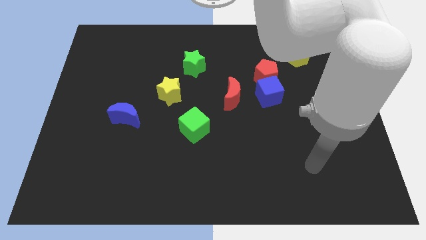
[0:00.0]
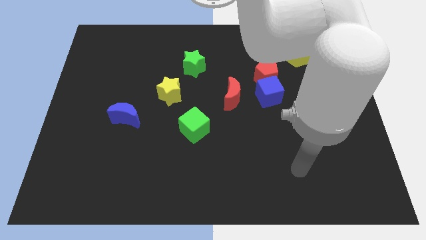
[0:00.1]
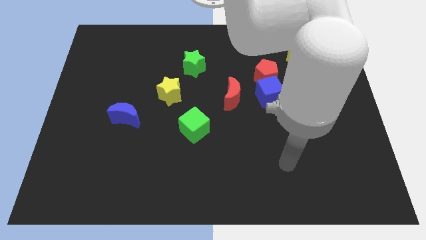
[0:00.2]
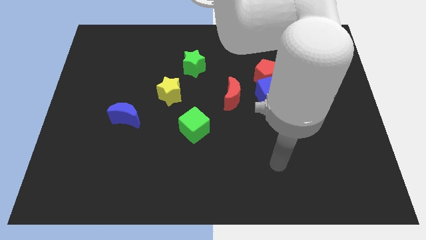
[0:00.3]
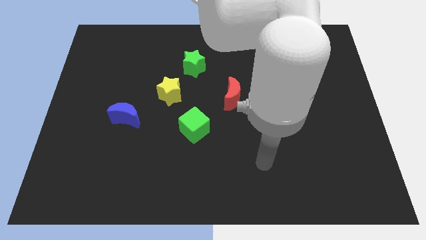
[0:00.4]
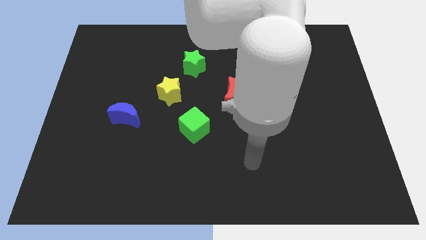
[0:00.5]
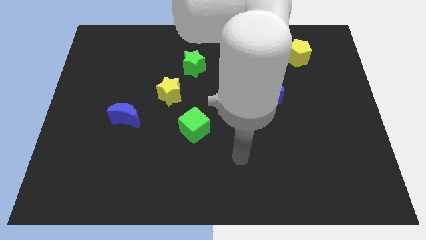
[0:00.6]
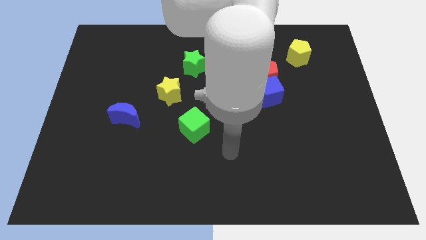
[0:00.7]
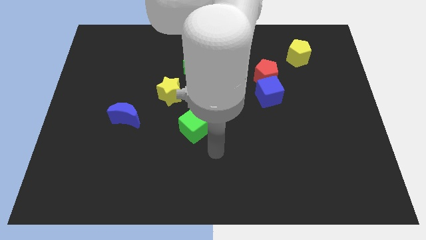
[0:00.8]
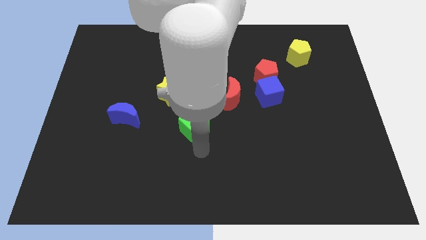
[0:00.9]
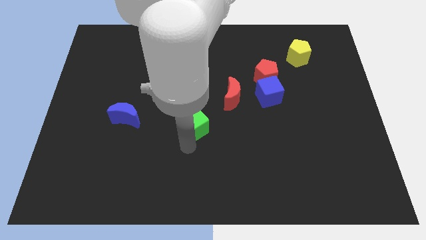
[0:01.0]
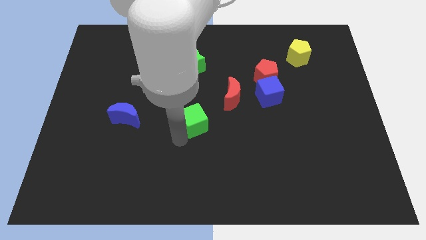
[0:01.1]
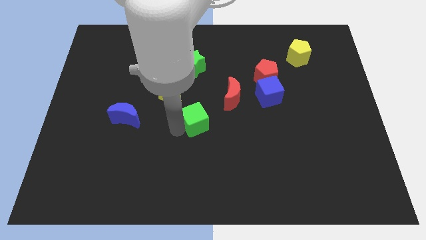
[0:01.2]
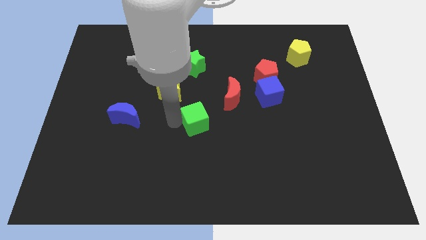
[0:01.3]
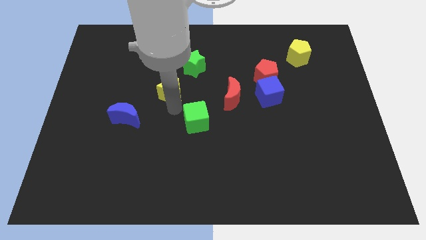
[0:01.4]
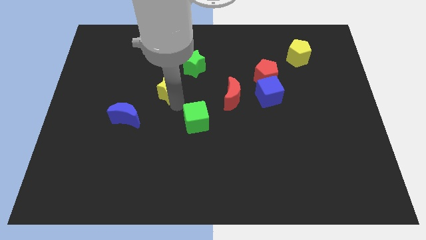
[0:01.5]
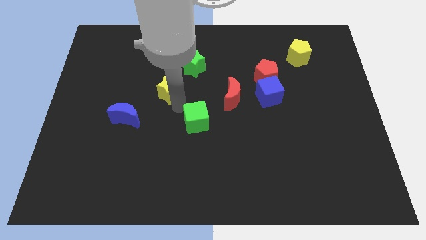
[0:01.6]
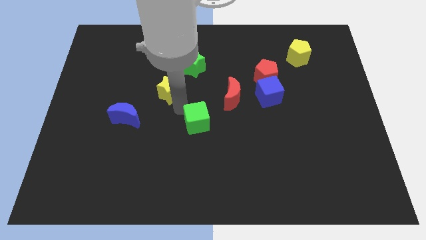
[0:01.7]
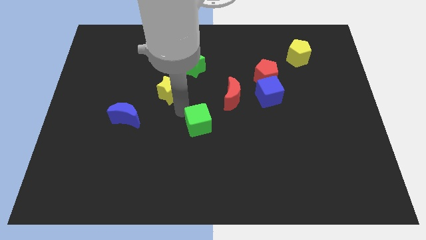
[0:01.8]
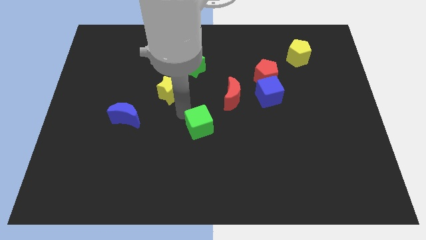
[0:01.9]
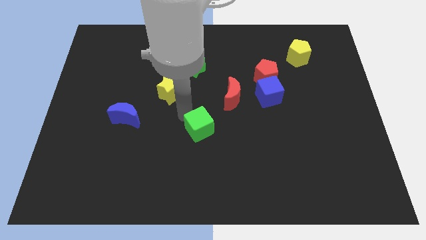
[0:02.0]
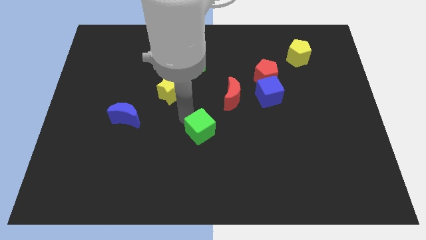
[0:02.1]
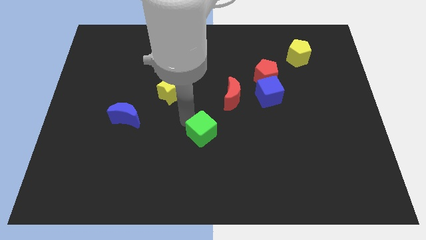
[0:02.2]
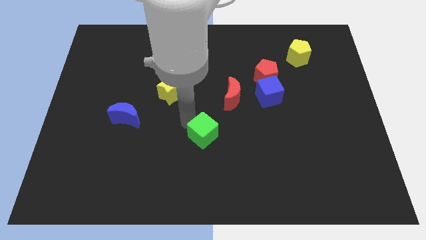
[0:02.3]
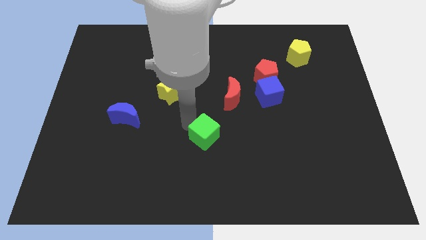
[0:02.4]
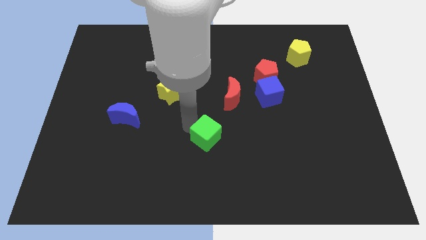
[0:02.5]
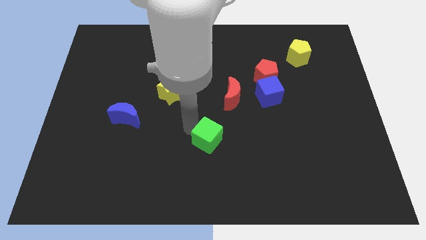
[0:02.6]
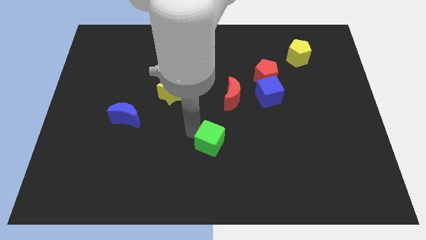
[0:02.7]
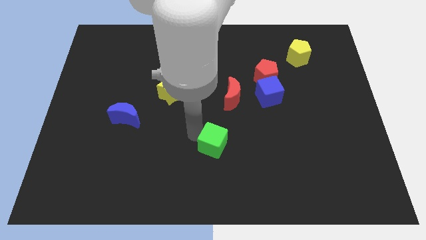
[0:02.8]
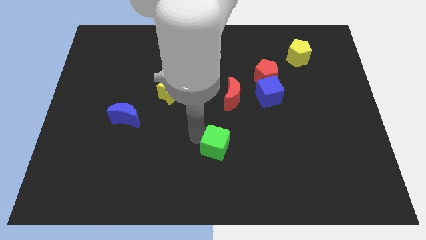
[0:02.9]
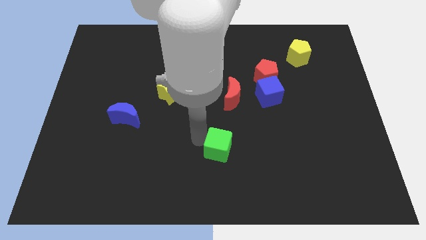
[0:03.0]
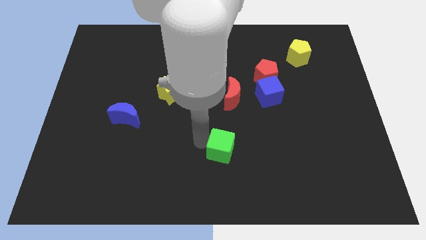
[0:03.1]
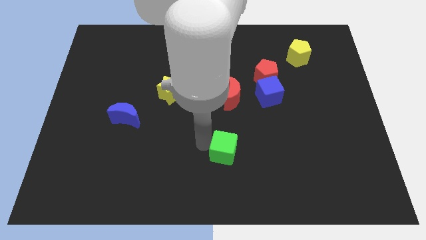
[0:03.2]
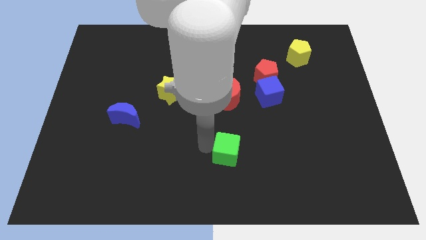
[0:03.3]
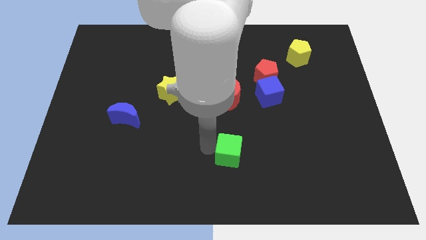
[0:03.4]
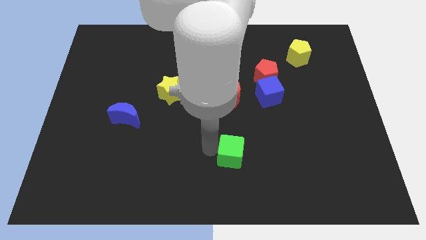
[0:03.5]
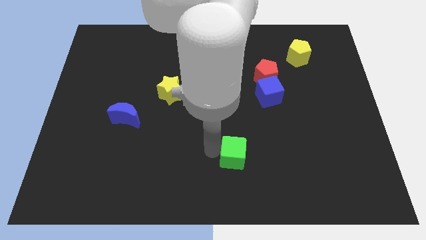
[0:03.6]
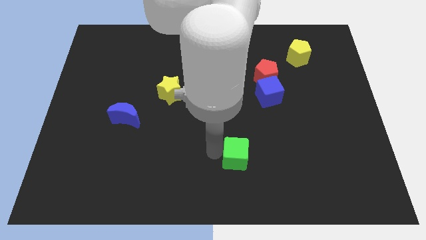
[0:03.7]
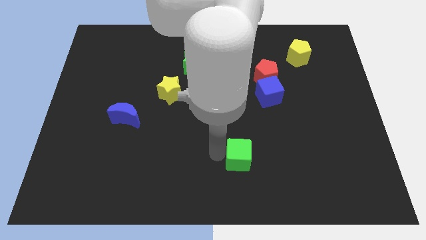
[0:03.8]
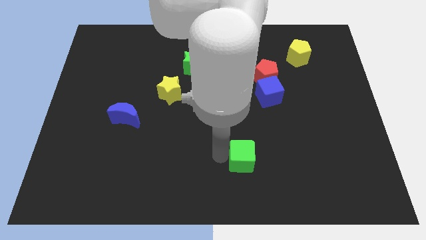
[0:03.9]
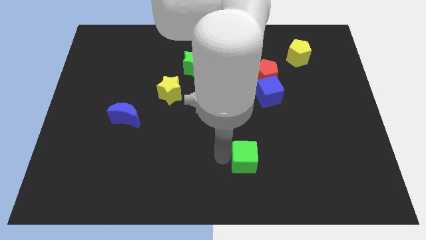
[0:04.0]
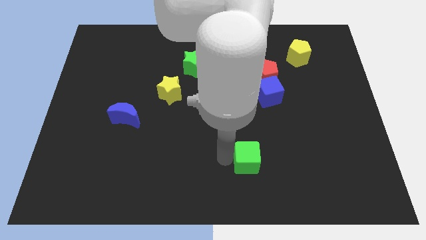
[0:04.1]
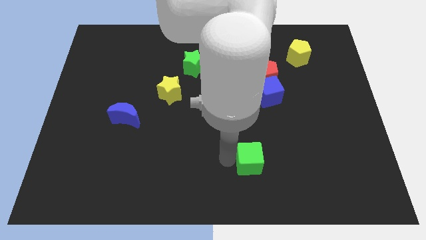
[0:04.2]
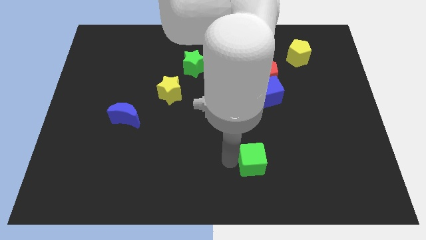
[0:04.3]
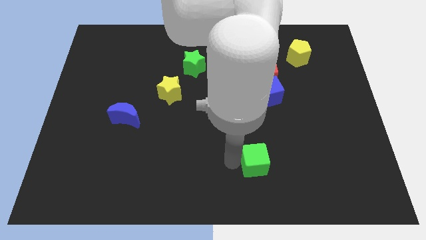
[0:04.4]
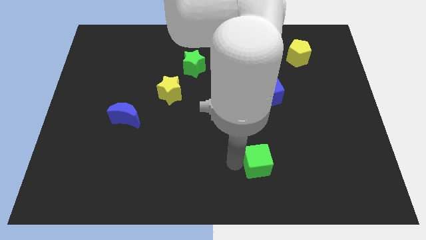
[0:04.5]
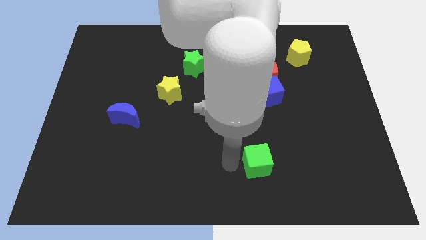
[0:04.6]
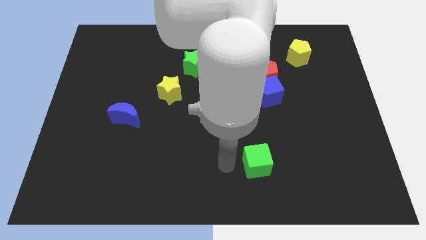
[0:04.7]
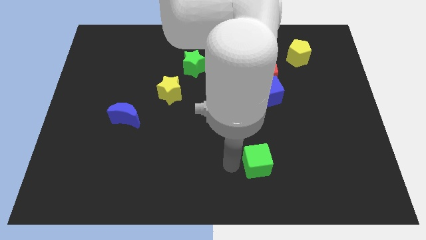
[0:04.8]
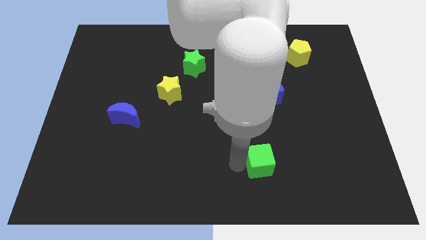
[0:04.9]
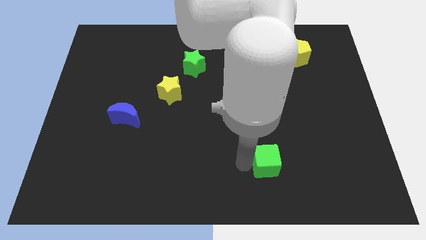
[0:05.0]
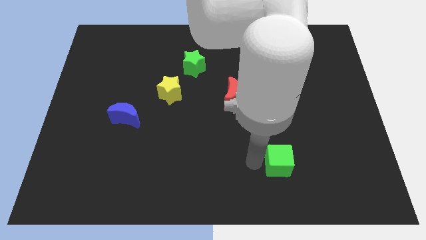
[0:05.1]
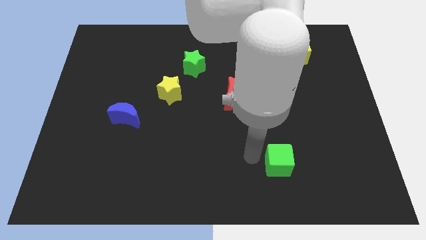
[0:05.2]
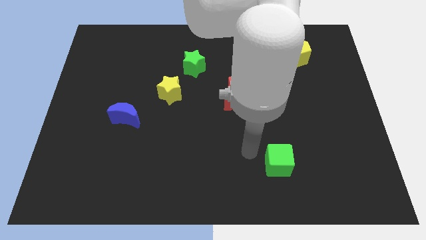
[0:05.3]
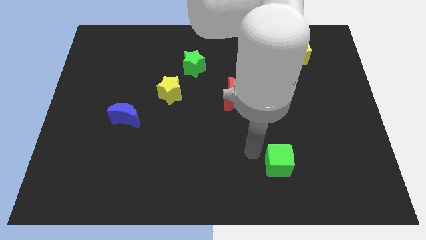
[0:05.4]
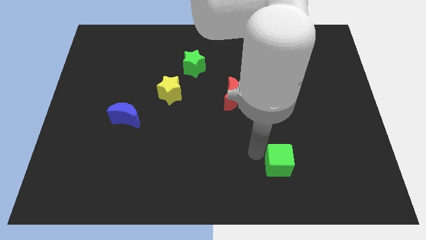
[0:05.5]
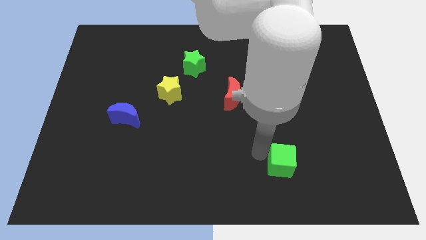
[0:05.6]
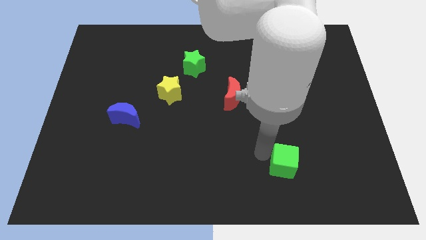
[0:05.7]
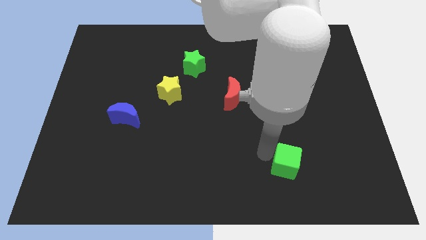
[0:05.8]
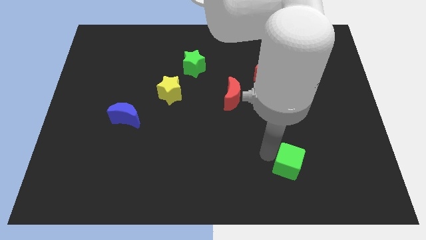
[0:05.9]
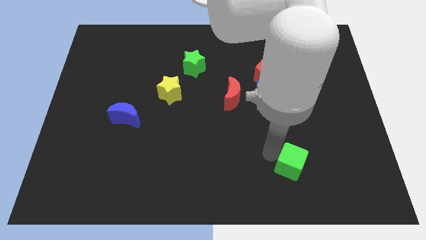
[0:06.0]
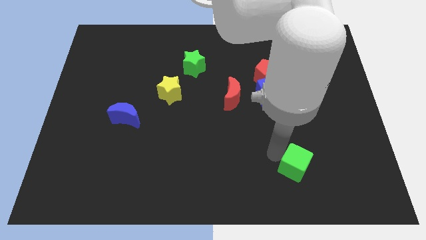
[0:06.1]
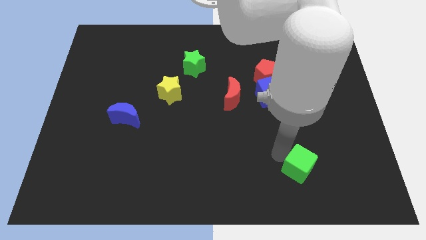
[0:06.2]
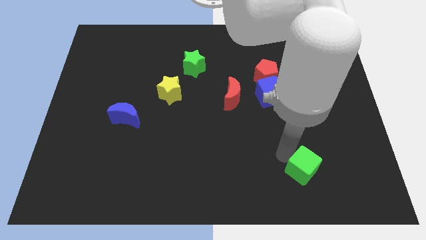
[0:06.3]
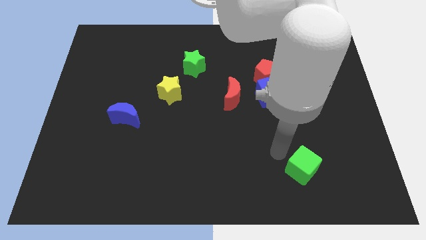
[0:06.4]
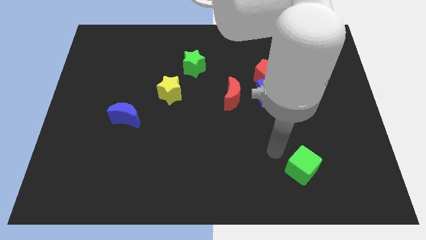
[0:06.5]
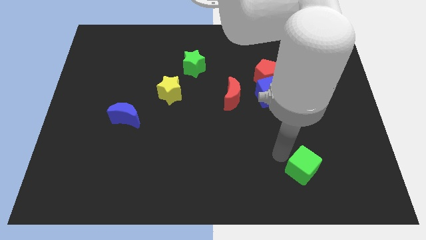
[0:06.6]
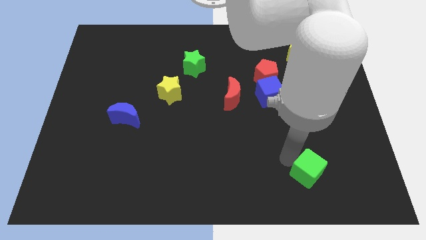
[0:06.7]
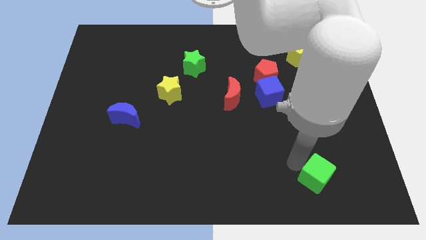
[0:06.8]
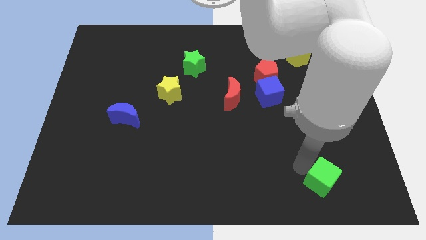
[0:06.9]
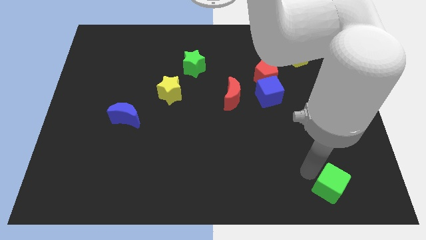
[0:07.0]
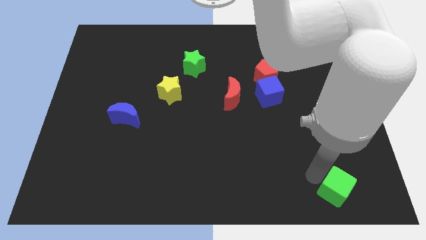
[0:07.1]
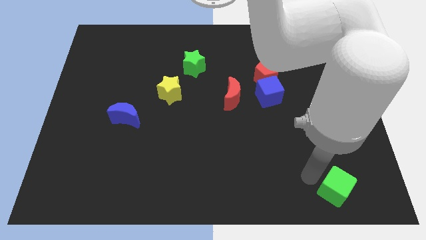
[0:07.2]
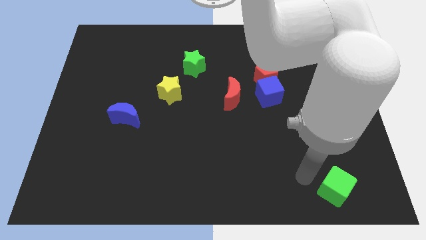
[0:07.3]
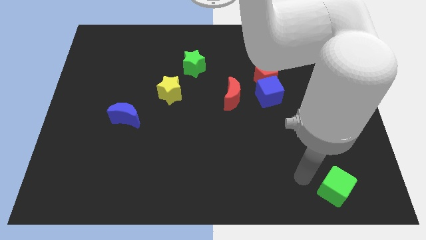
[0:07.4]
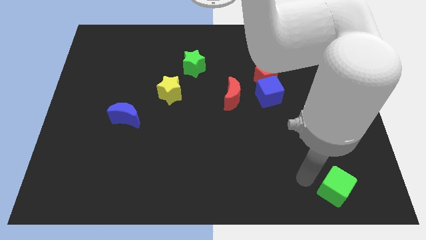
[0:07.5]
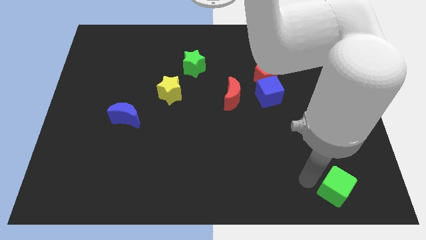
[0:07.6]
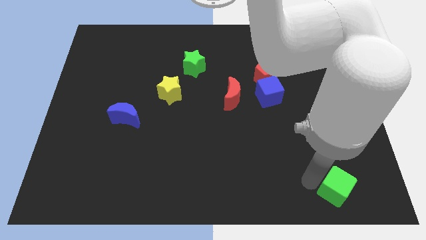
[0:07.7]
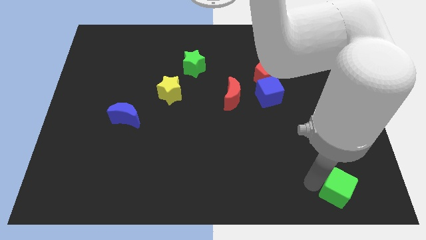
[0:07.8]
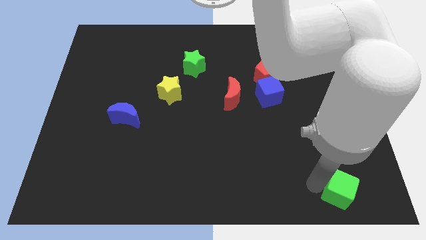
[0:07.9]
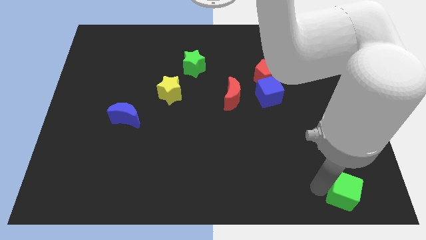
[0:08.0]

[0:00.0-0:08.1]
slide the green cube to the bottom right of the board
